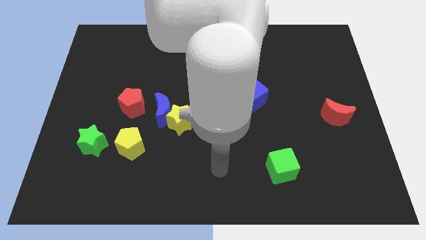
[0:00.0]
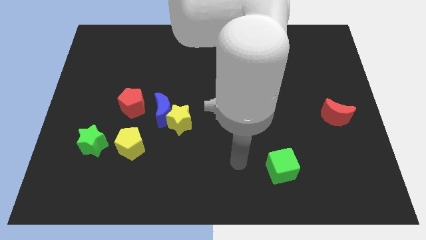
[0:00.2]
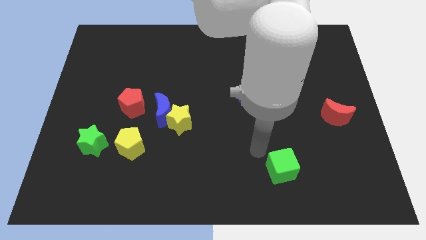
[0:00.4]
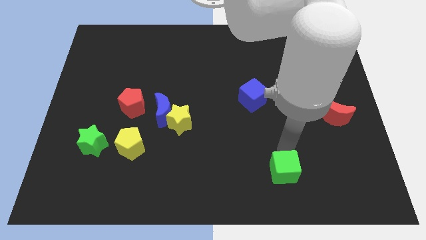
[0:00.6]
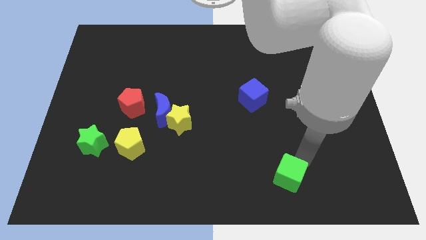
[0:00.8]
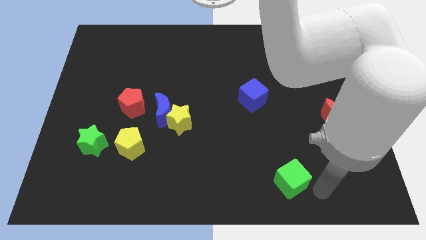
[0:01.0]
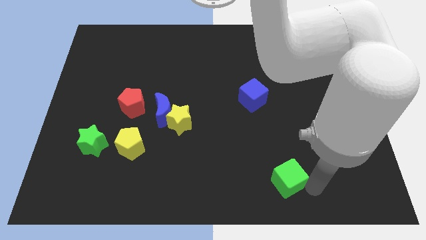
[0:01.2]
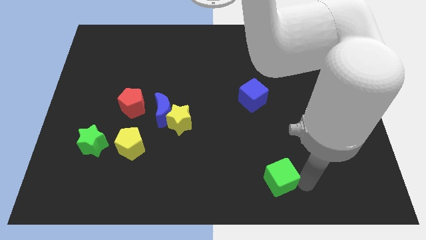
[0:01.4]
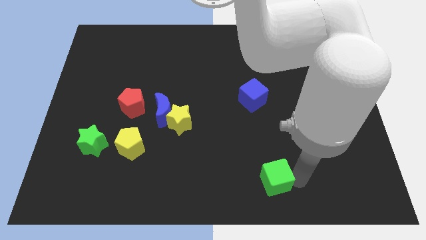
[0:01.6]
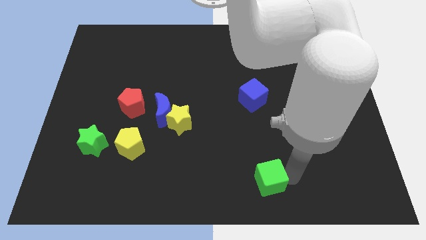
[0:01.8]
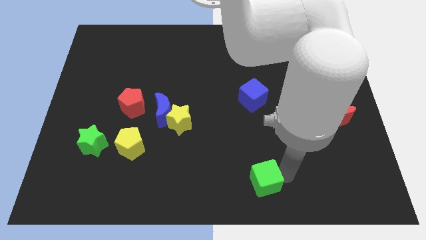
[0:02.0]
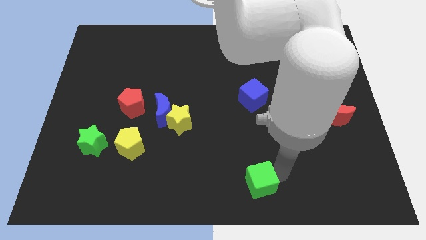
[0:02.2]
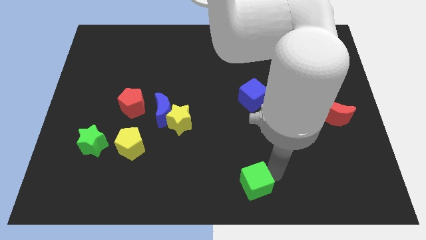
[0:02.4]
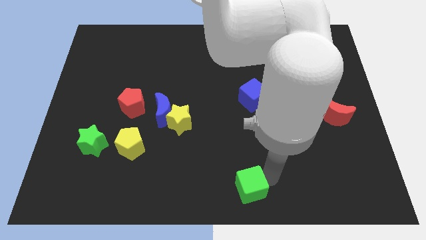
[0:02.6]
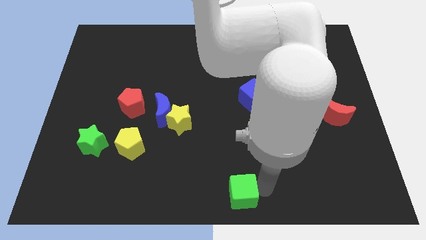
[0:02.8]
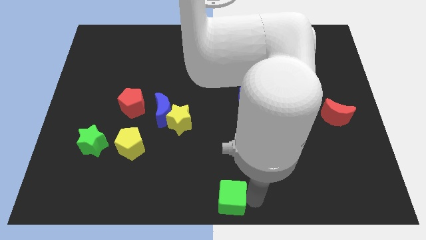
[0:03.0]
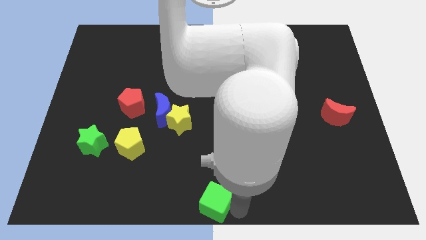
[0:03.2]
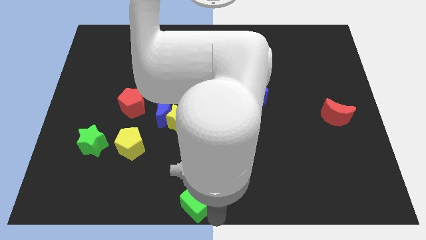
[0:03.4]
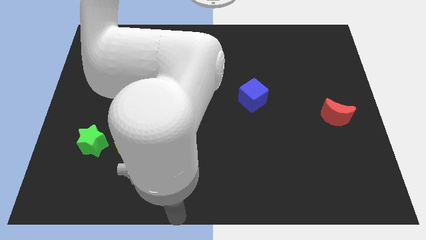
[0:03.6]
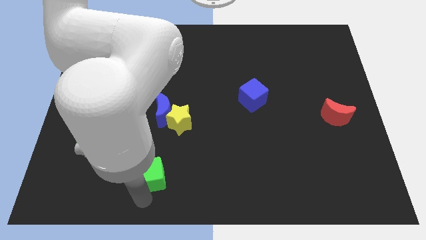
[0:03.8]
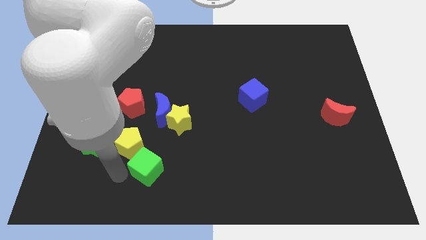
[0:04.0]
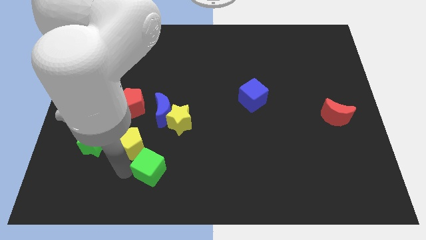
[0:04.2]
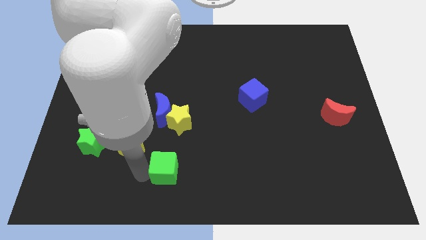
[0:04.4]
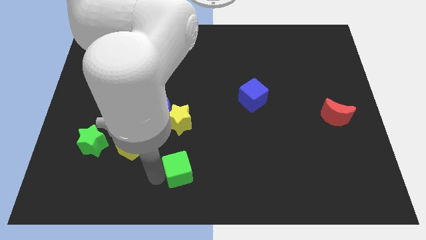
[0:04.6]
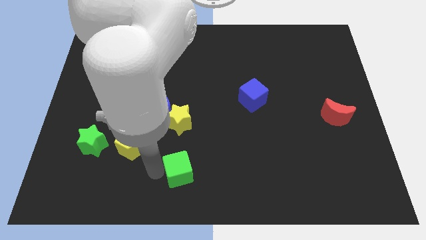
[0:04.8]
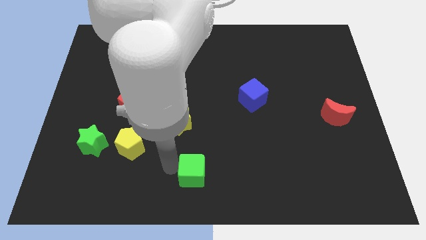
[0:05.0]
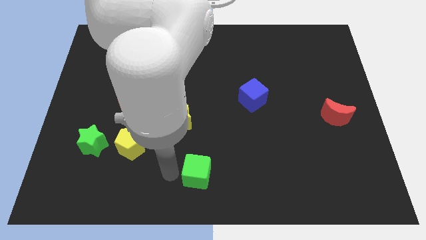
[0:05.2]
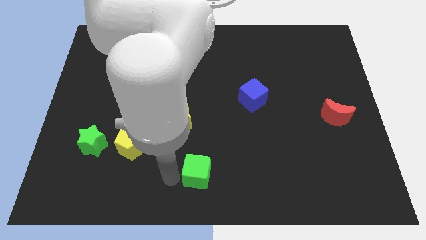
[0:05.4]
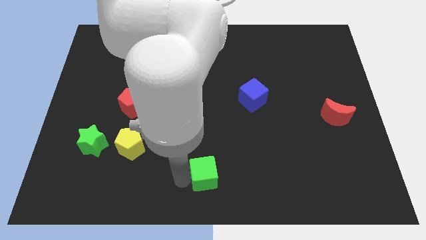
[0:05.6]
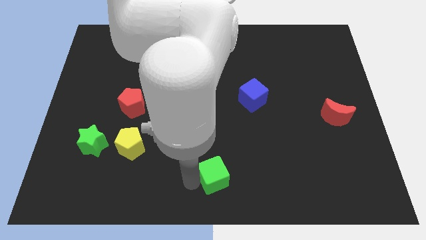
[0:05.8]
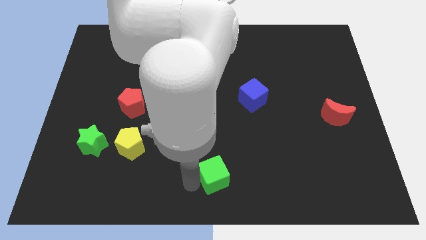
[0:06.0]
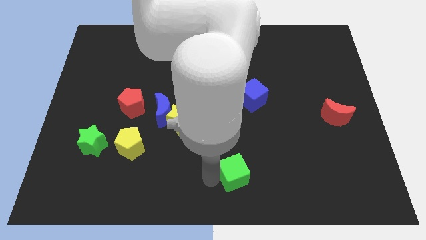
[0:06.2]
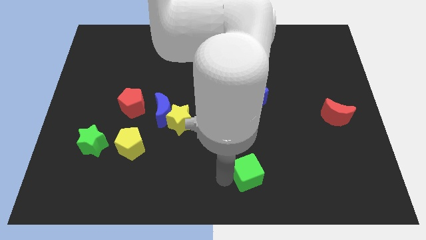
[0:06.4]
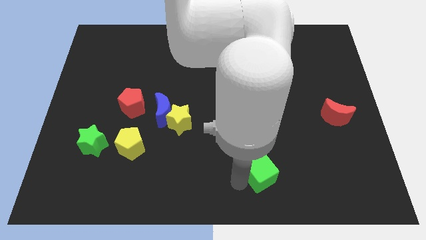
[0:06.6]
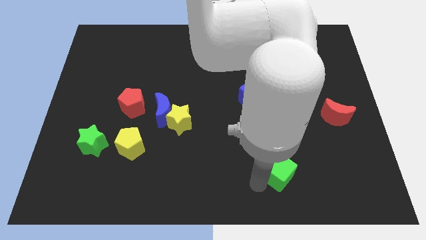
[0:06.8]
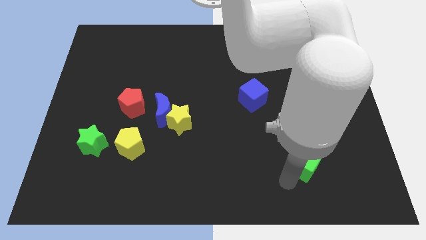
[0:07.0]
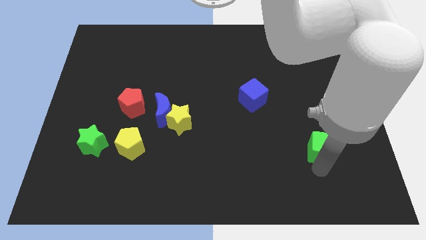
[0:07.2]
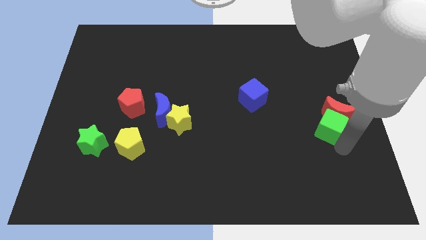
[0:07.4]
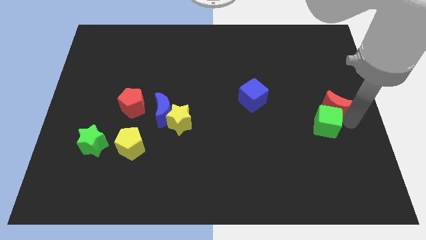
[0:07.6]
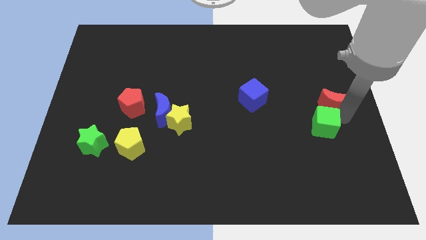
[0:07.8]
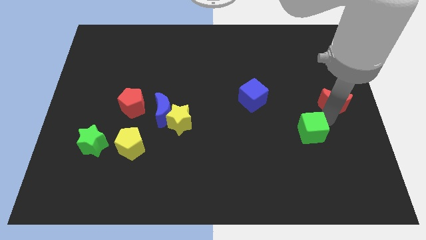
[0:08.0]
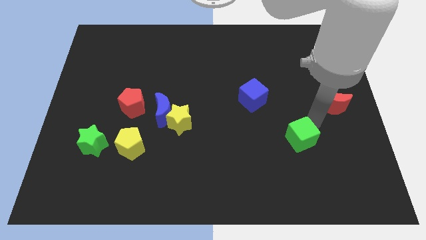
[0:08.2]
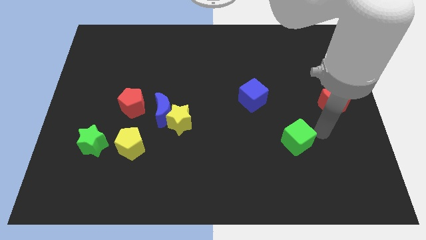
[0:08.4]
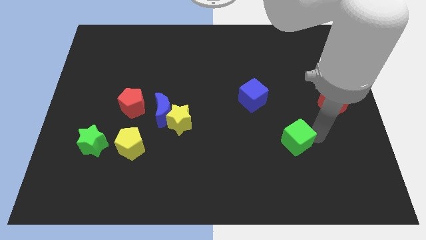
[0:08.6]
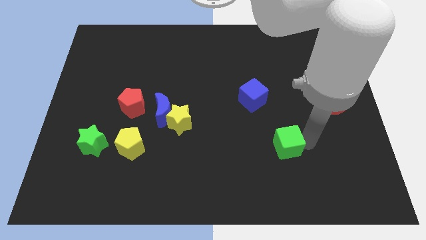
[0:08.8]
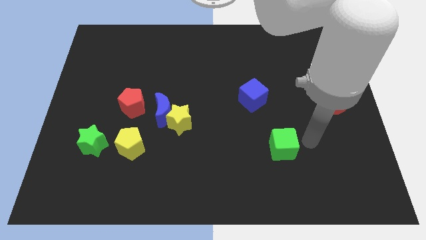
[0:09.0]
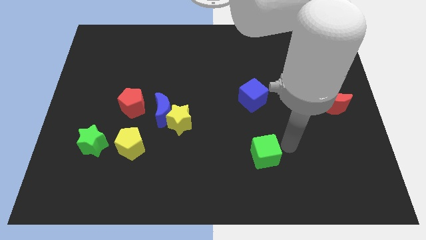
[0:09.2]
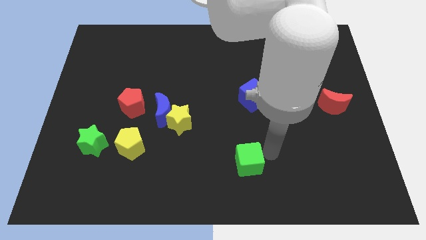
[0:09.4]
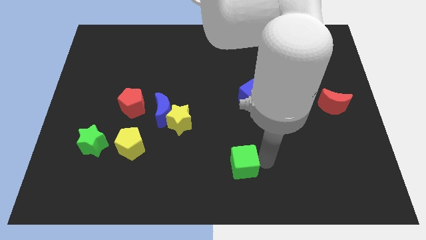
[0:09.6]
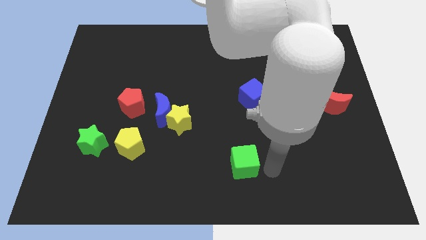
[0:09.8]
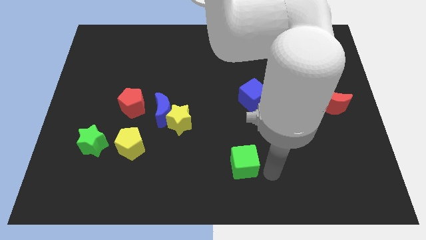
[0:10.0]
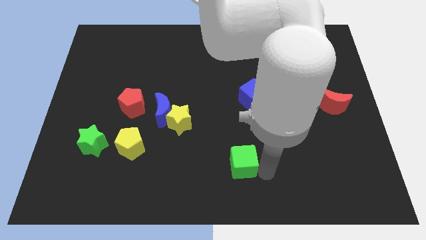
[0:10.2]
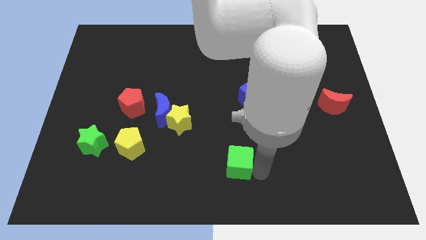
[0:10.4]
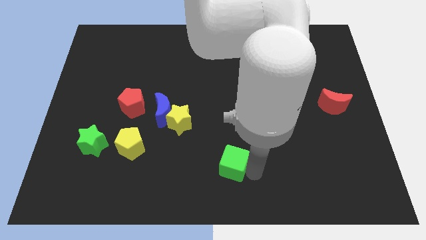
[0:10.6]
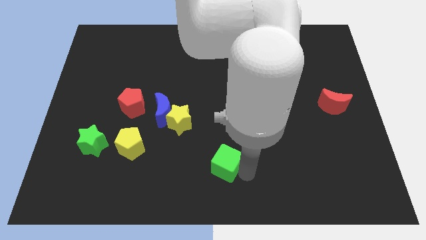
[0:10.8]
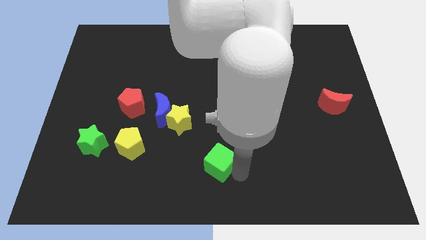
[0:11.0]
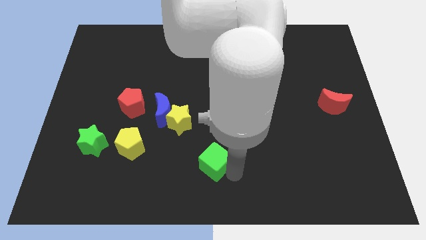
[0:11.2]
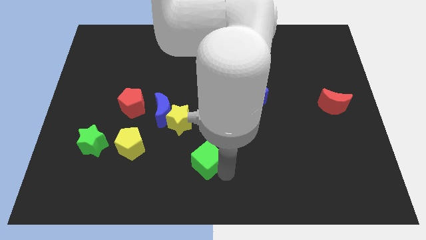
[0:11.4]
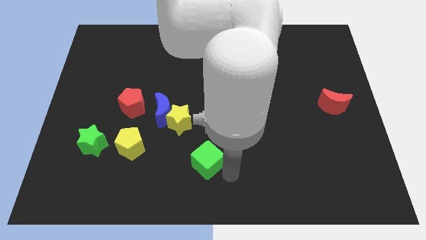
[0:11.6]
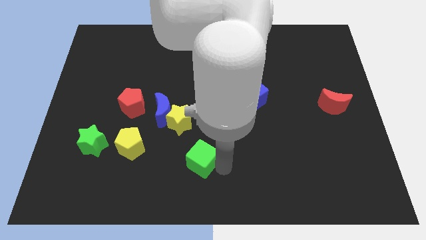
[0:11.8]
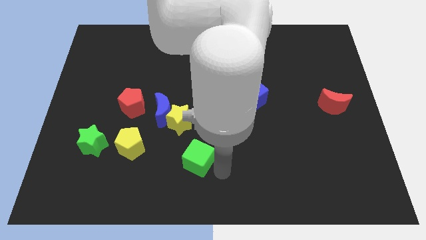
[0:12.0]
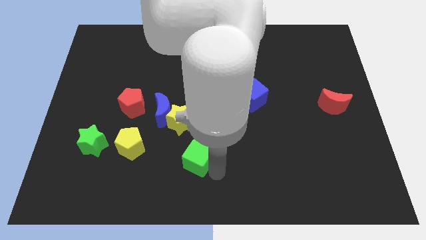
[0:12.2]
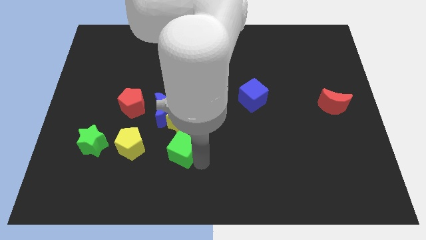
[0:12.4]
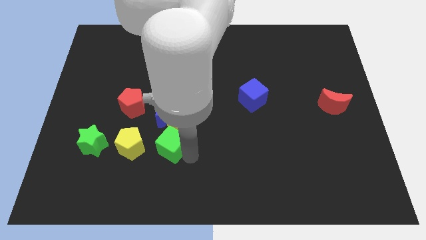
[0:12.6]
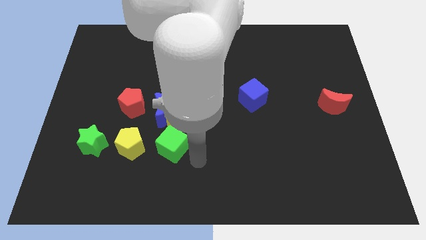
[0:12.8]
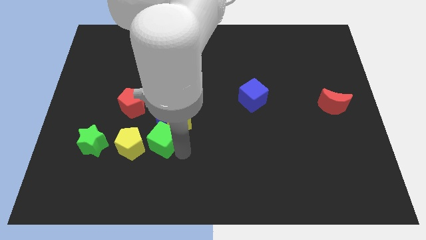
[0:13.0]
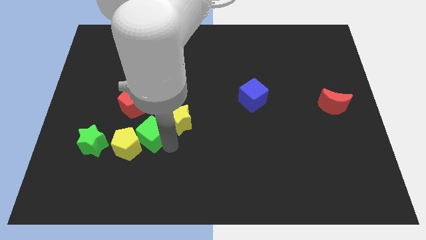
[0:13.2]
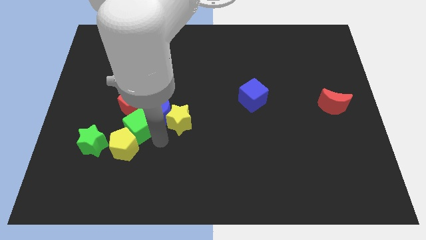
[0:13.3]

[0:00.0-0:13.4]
put the green cube to the left side of the blue moon

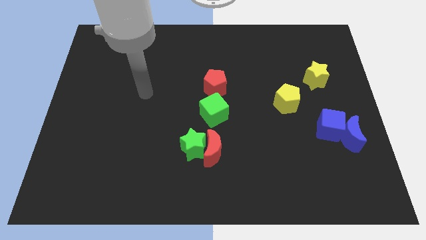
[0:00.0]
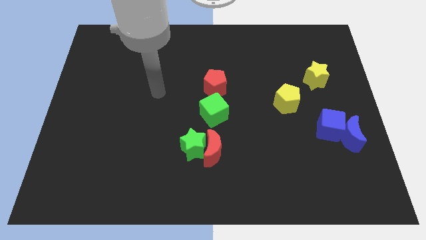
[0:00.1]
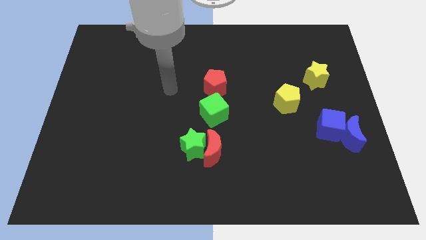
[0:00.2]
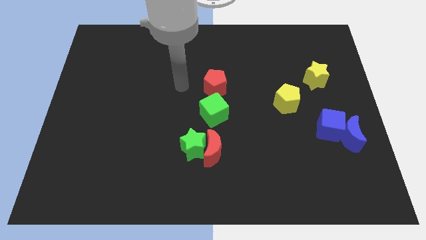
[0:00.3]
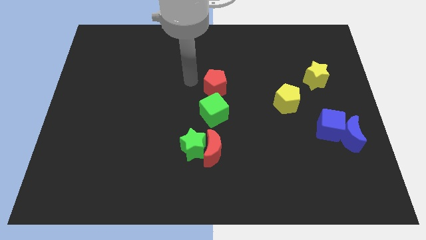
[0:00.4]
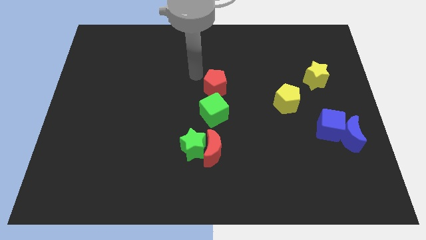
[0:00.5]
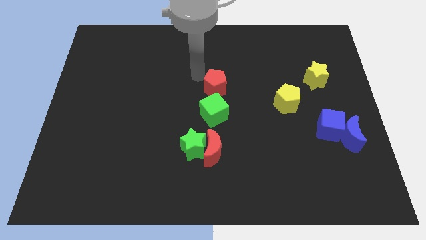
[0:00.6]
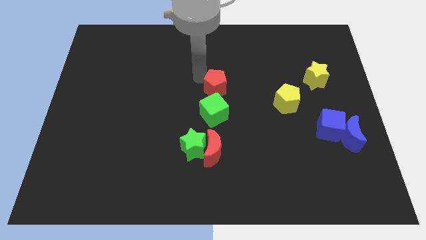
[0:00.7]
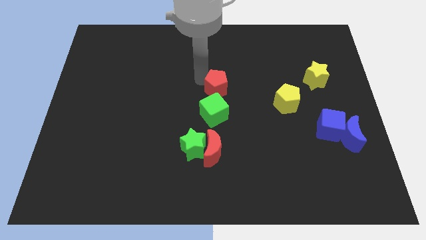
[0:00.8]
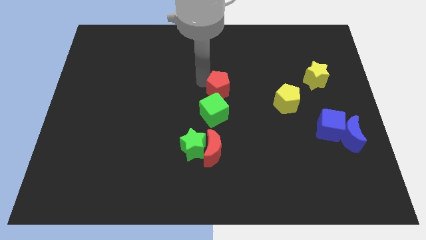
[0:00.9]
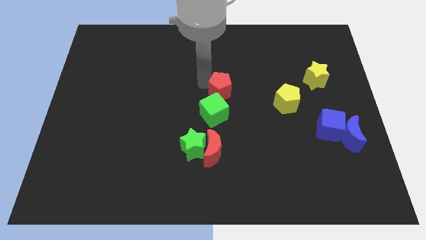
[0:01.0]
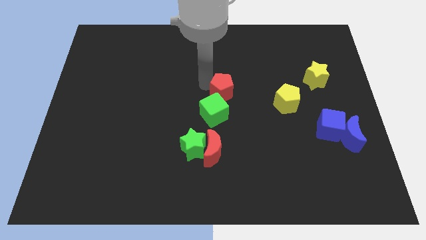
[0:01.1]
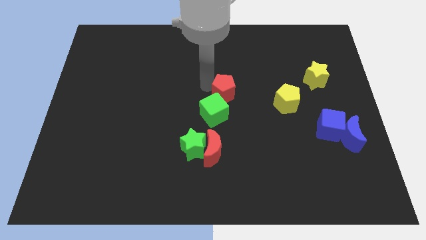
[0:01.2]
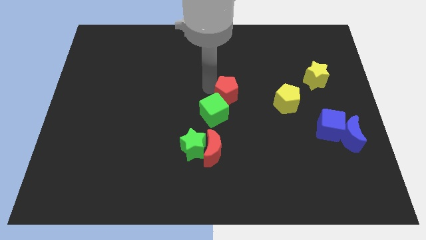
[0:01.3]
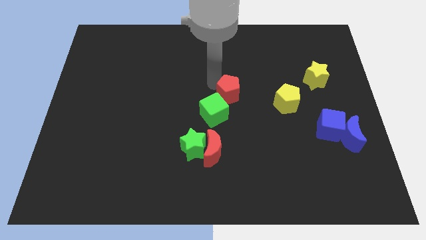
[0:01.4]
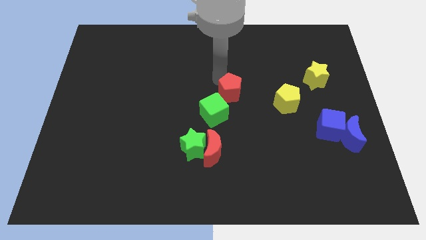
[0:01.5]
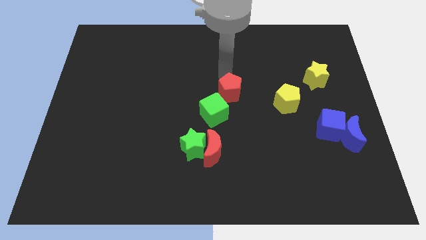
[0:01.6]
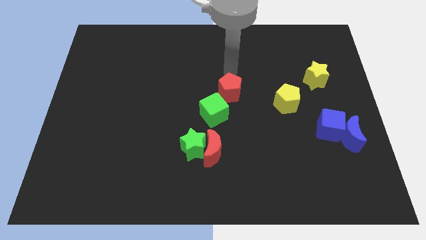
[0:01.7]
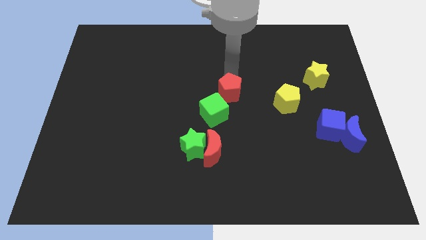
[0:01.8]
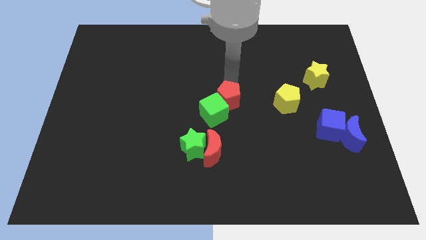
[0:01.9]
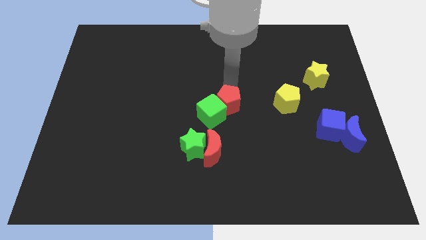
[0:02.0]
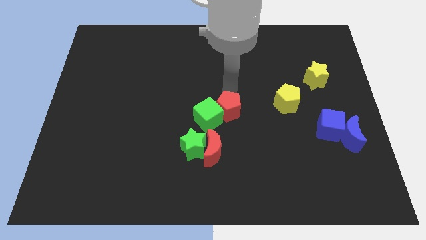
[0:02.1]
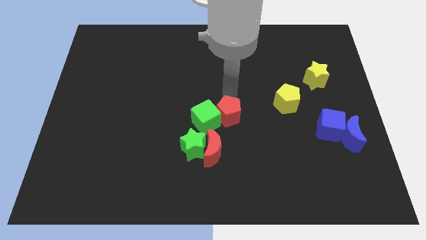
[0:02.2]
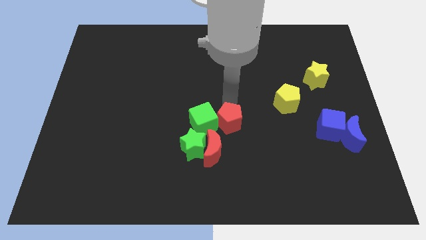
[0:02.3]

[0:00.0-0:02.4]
put the red pentagon to the bottom right side of the green cube
